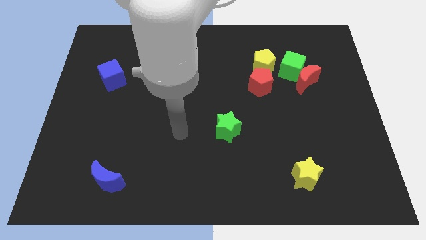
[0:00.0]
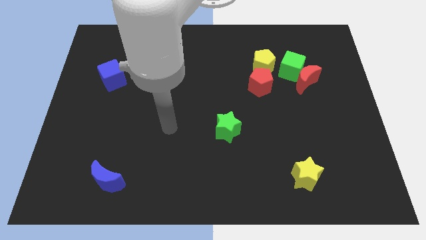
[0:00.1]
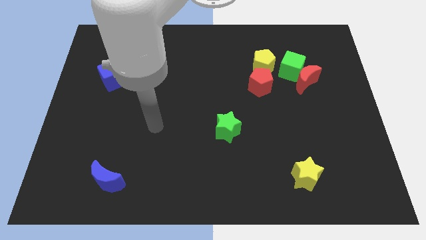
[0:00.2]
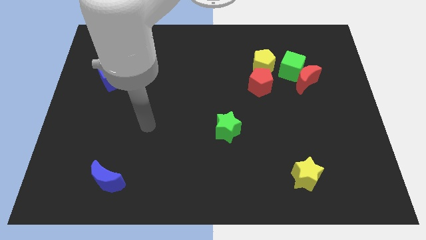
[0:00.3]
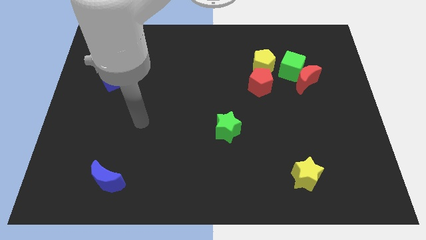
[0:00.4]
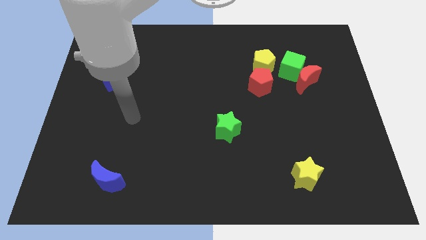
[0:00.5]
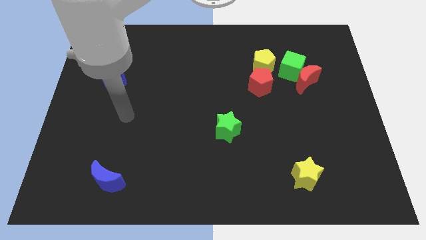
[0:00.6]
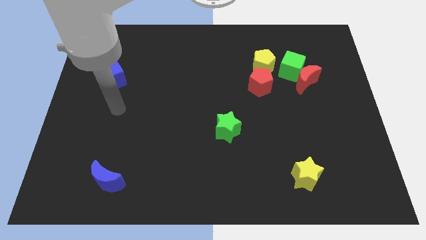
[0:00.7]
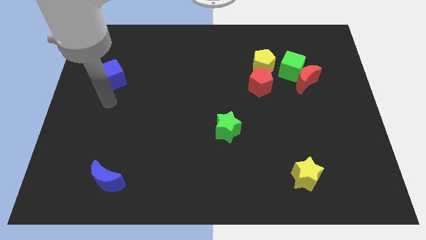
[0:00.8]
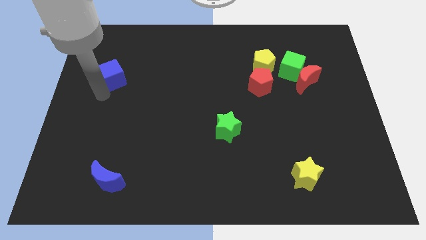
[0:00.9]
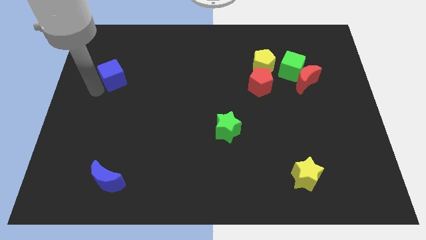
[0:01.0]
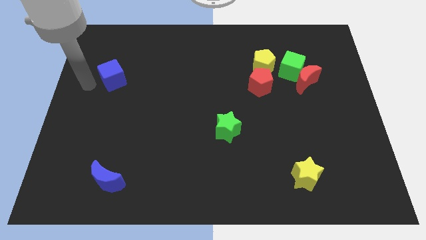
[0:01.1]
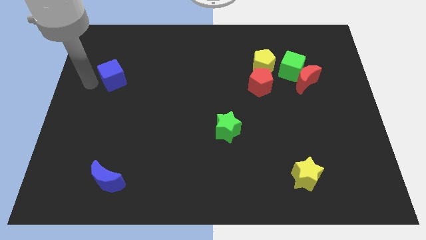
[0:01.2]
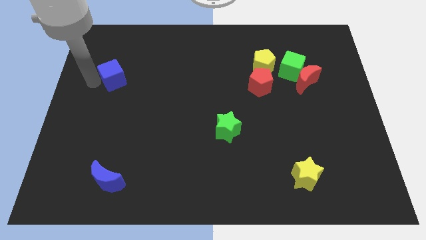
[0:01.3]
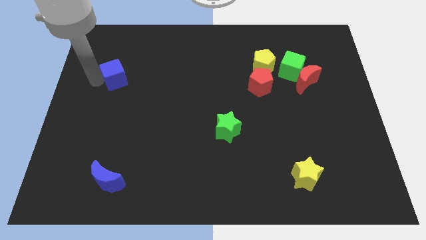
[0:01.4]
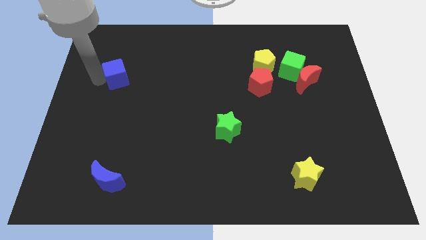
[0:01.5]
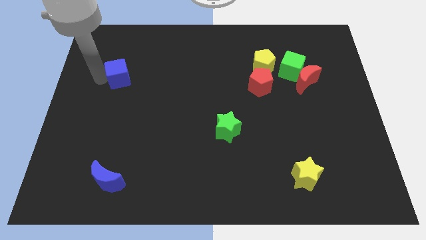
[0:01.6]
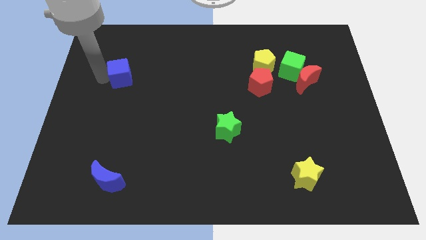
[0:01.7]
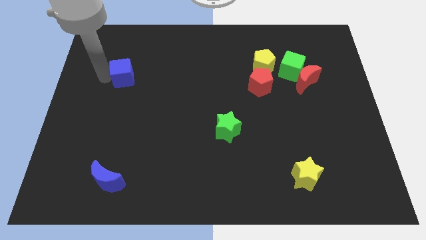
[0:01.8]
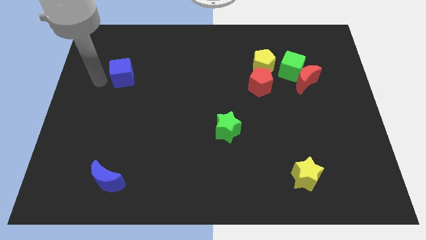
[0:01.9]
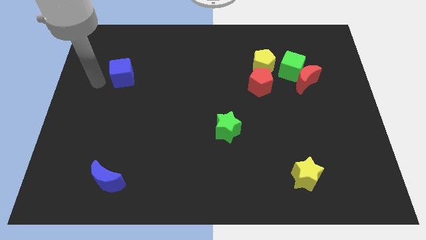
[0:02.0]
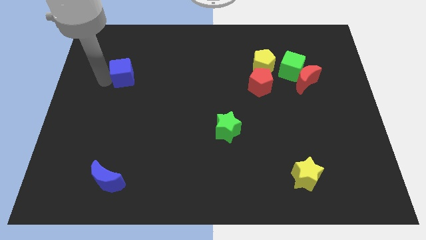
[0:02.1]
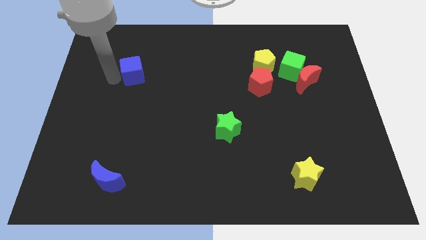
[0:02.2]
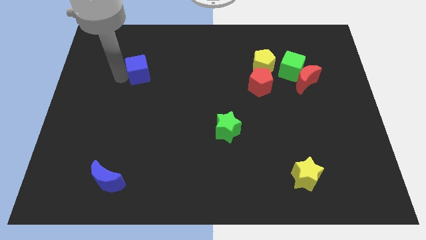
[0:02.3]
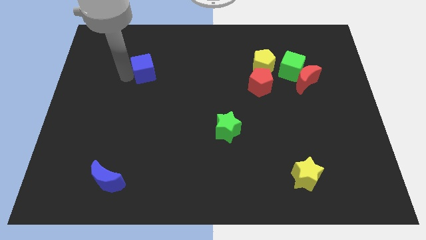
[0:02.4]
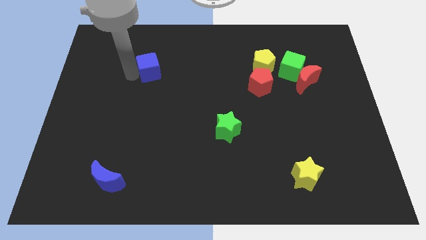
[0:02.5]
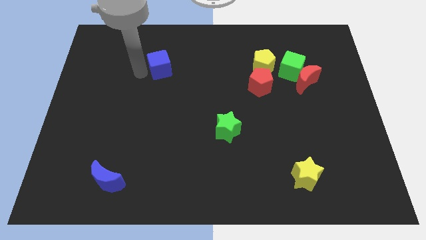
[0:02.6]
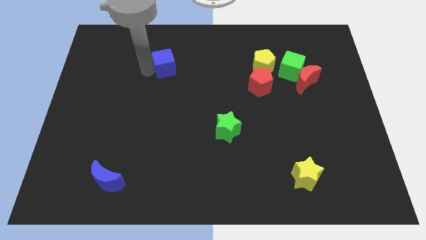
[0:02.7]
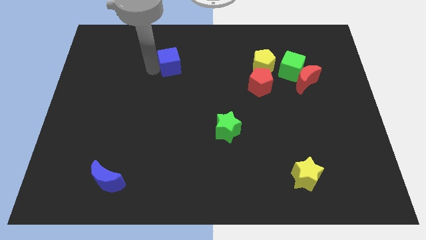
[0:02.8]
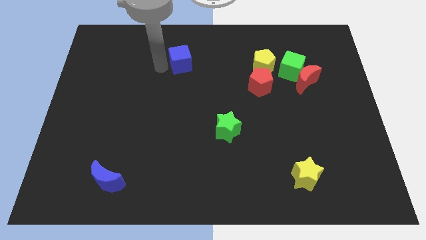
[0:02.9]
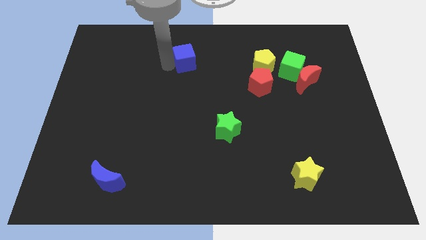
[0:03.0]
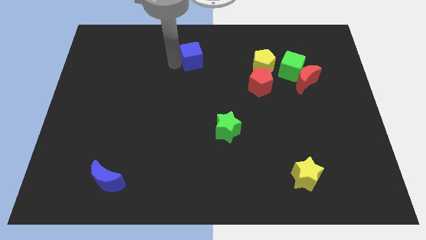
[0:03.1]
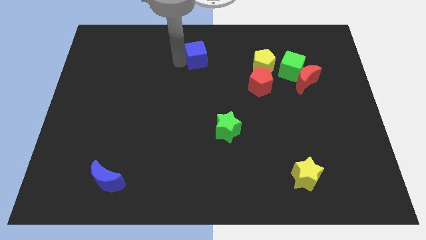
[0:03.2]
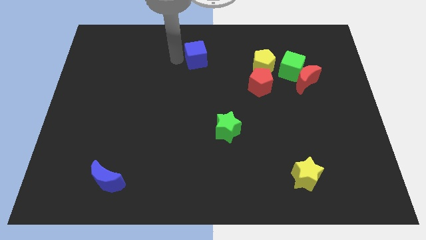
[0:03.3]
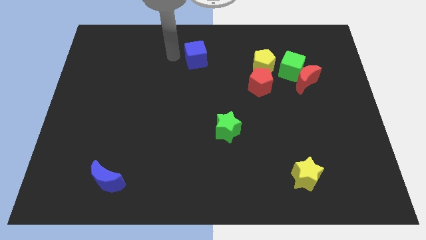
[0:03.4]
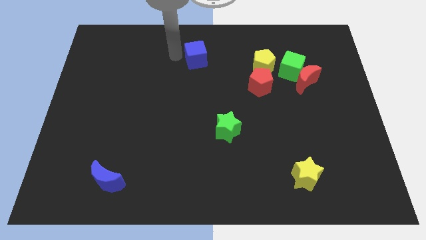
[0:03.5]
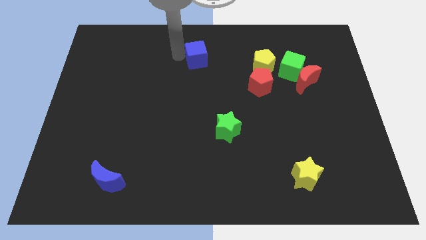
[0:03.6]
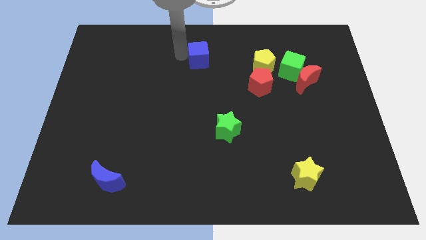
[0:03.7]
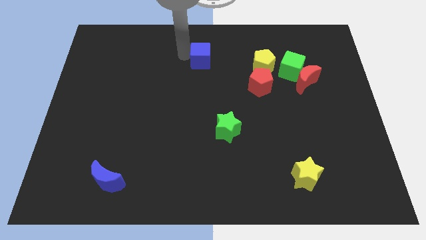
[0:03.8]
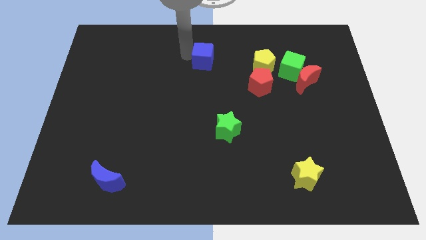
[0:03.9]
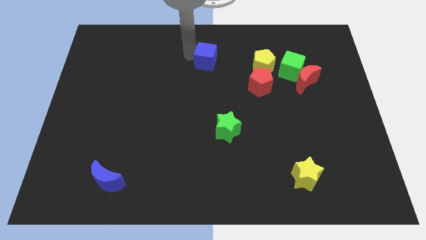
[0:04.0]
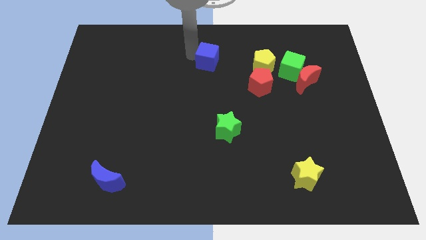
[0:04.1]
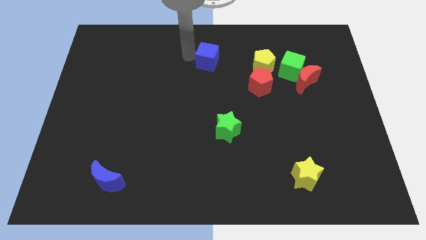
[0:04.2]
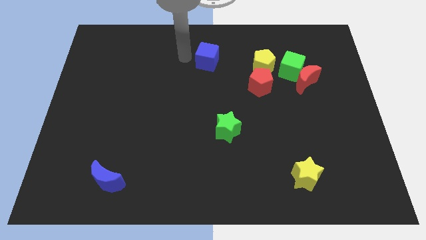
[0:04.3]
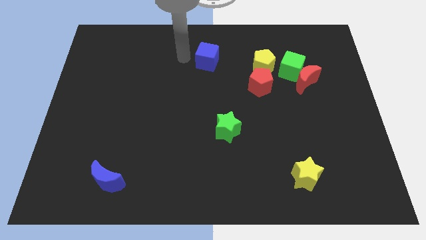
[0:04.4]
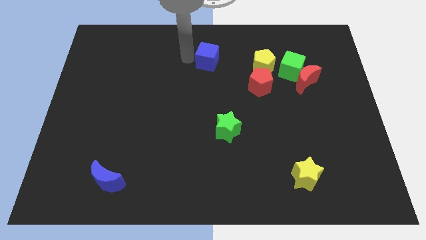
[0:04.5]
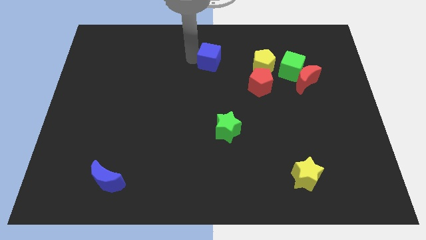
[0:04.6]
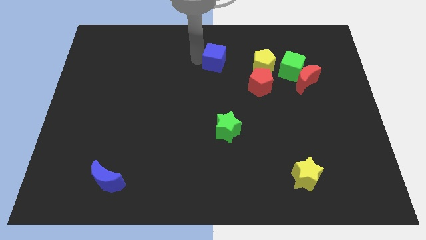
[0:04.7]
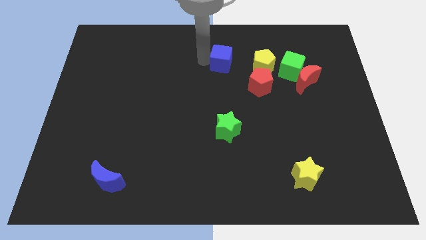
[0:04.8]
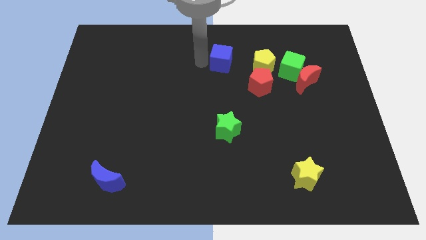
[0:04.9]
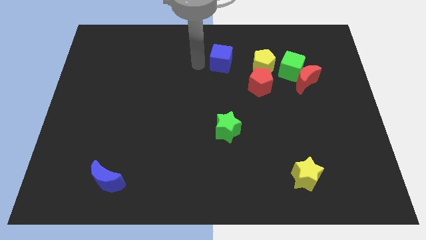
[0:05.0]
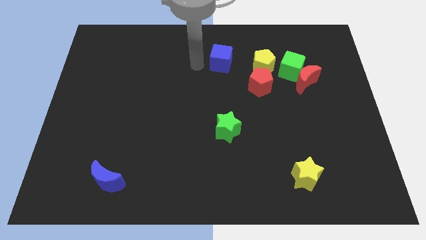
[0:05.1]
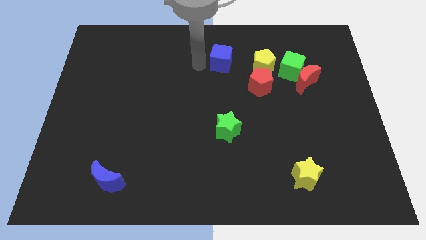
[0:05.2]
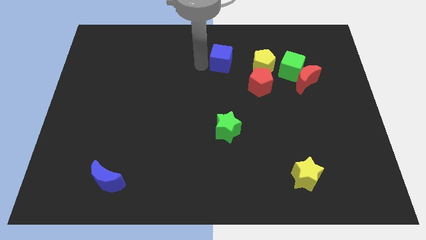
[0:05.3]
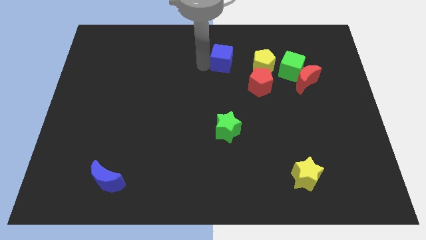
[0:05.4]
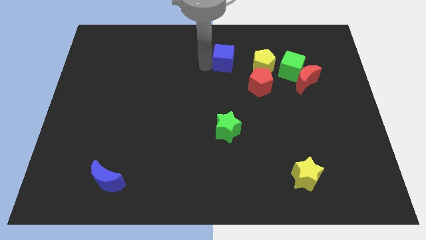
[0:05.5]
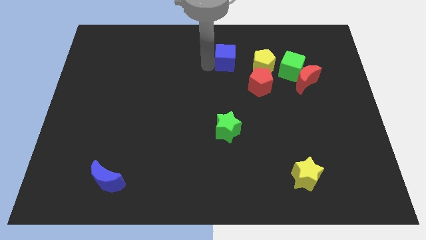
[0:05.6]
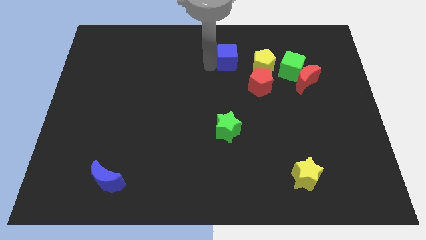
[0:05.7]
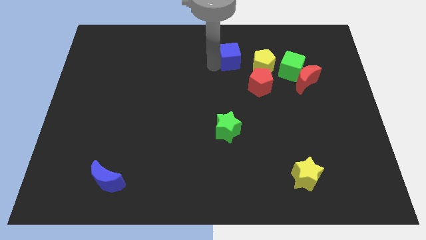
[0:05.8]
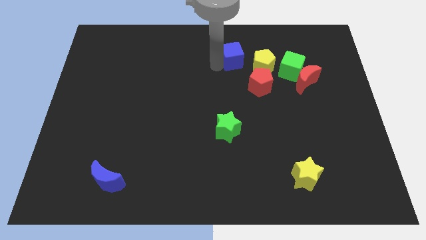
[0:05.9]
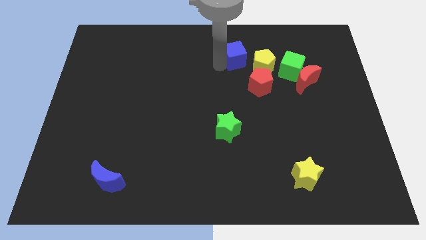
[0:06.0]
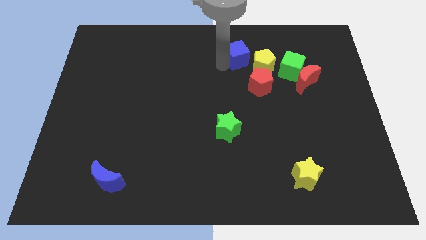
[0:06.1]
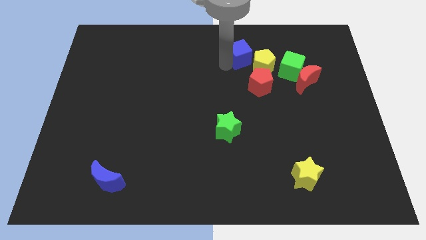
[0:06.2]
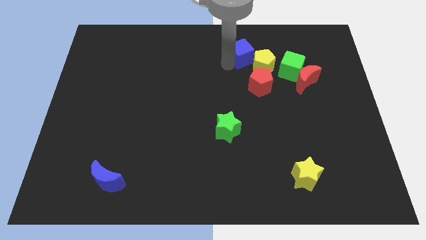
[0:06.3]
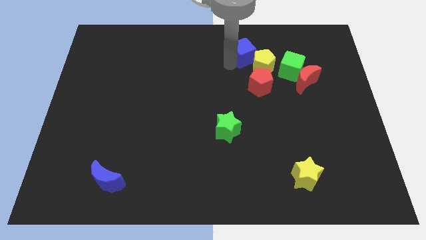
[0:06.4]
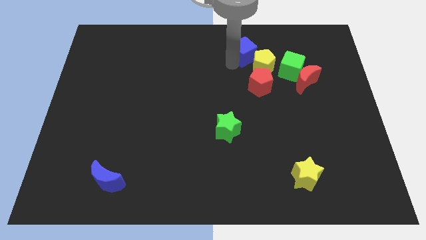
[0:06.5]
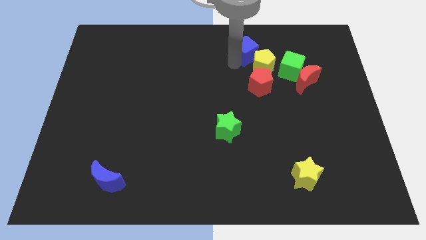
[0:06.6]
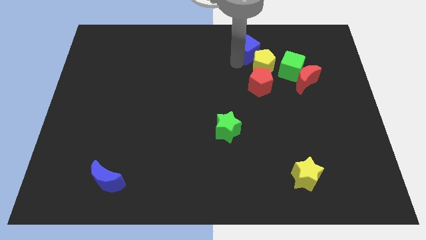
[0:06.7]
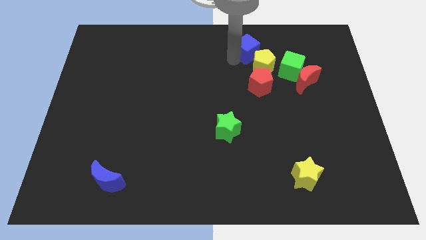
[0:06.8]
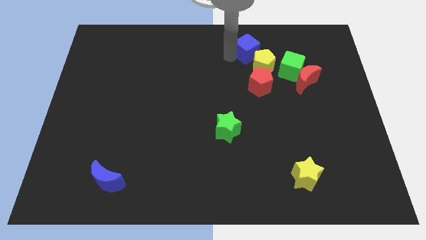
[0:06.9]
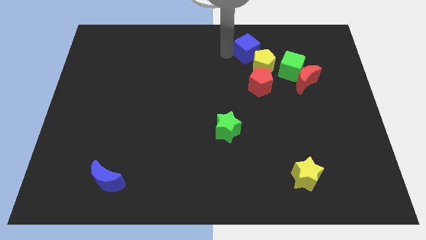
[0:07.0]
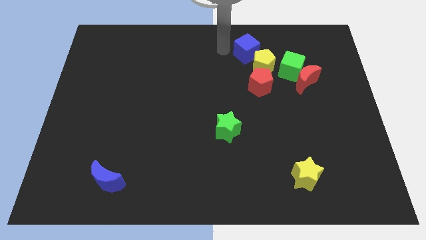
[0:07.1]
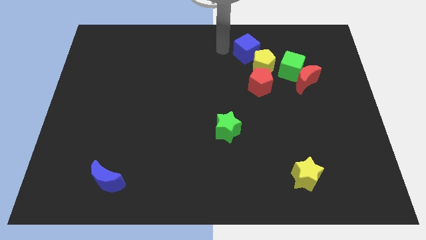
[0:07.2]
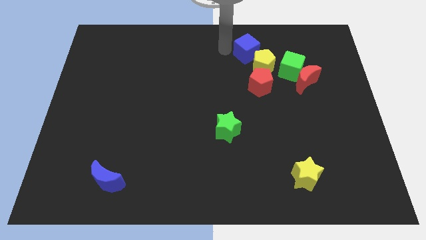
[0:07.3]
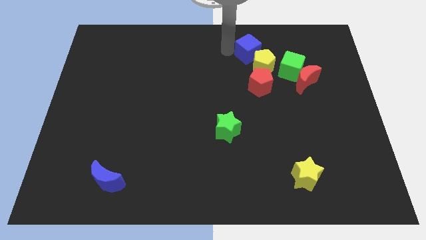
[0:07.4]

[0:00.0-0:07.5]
put the blue cube to the top left side of the green cube
